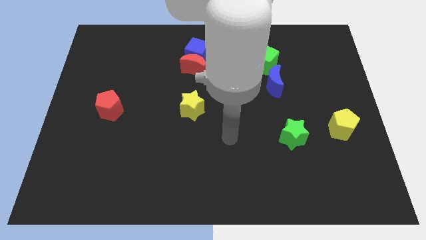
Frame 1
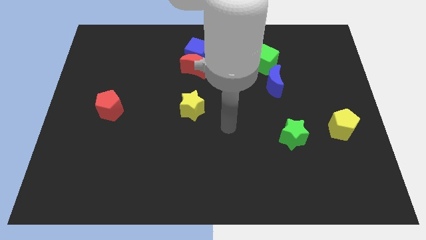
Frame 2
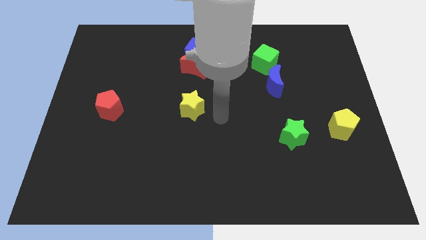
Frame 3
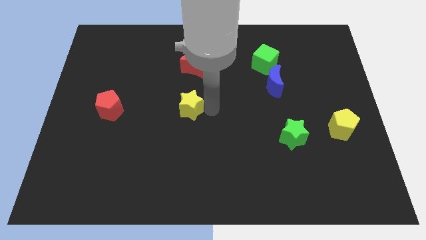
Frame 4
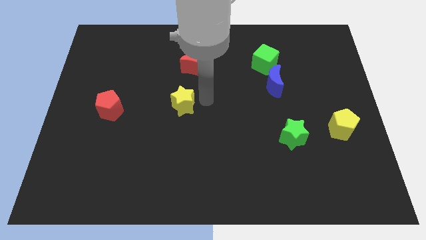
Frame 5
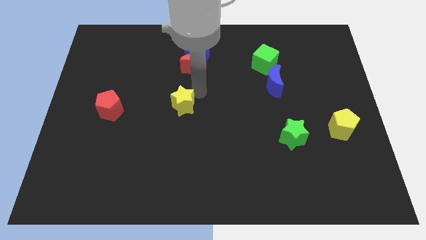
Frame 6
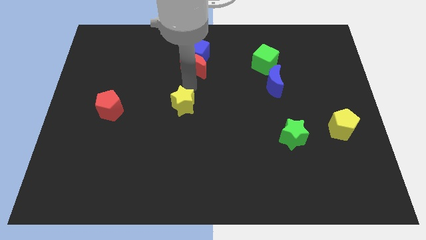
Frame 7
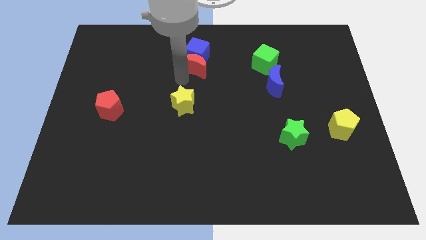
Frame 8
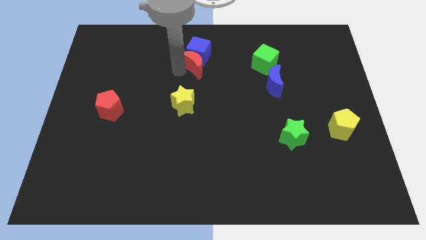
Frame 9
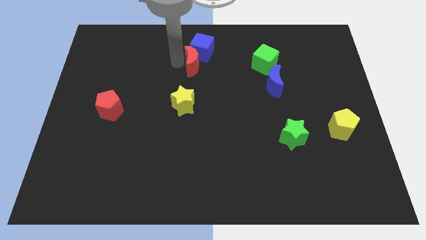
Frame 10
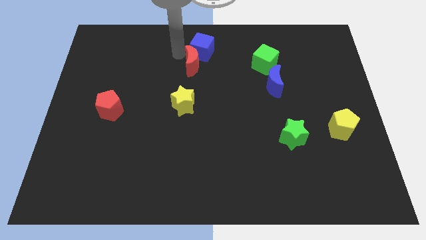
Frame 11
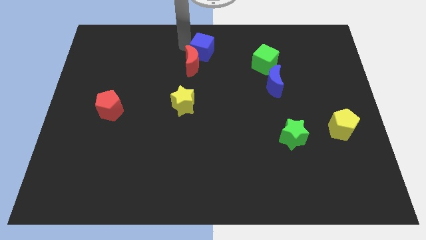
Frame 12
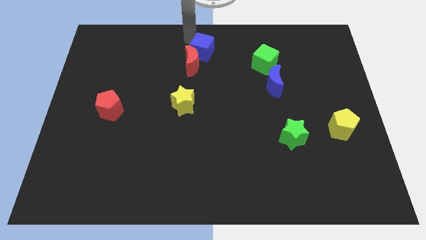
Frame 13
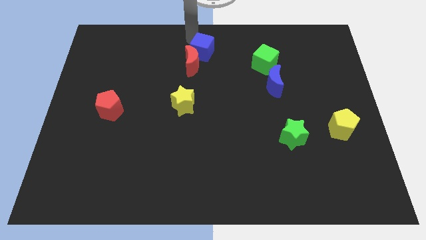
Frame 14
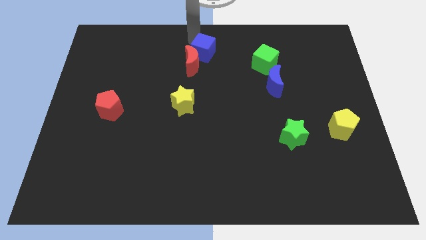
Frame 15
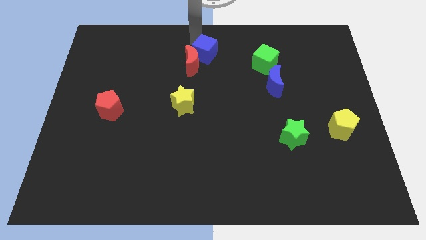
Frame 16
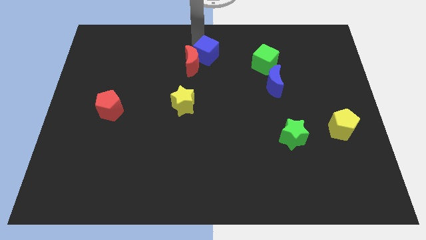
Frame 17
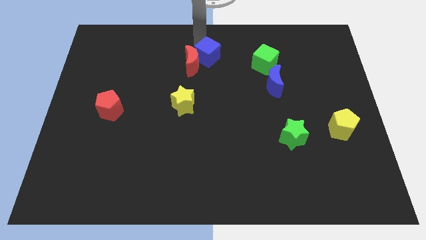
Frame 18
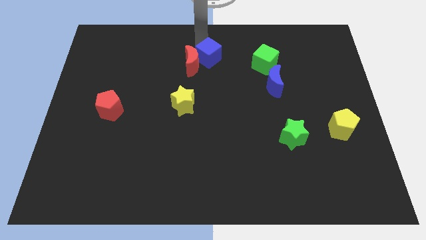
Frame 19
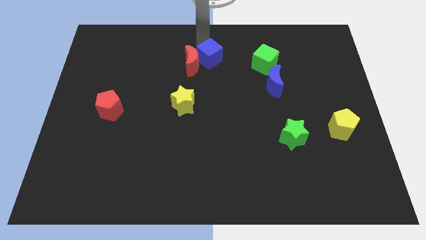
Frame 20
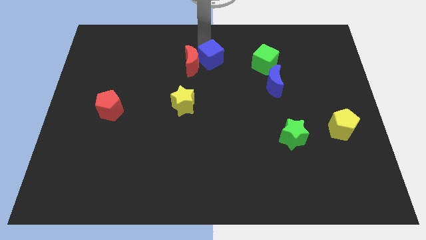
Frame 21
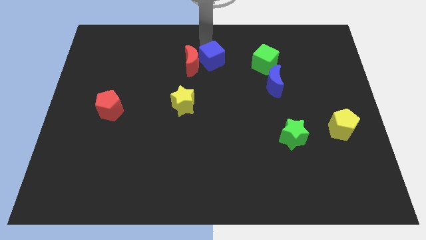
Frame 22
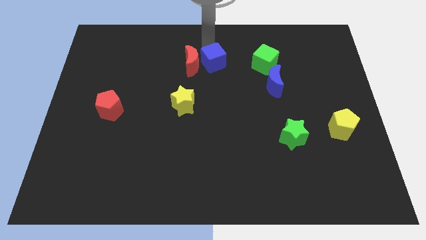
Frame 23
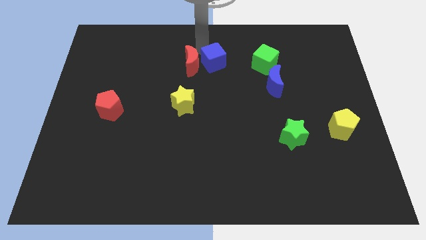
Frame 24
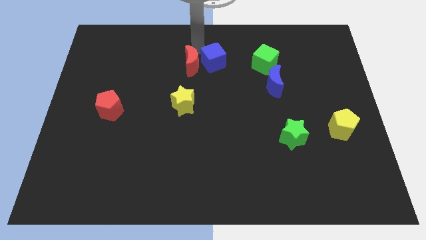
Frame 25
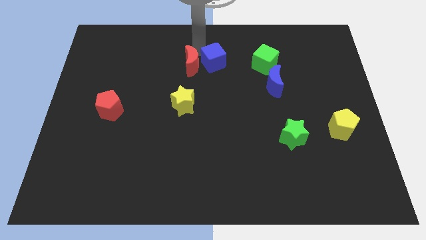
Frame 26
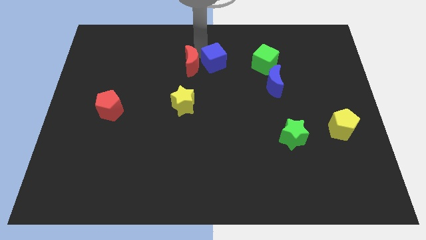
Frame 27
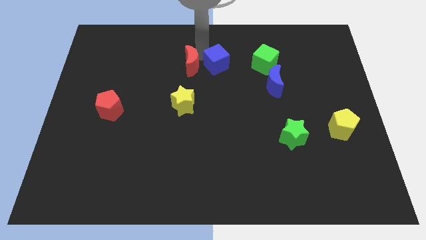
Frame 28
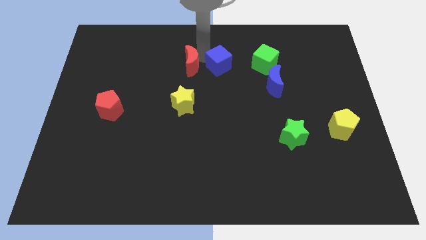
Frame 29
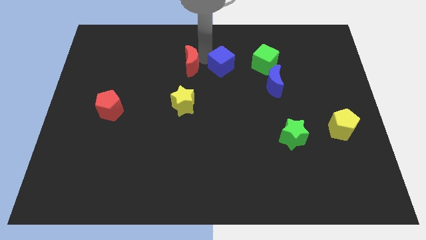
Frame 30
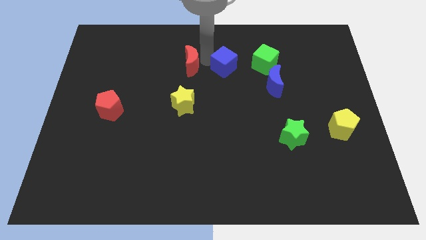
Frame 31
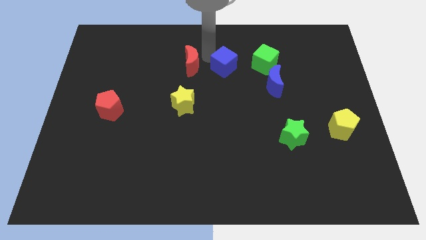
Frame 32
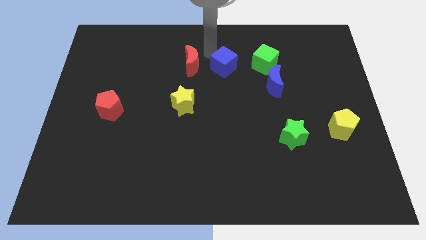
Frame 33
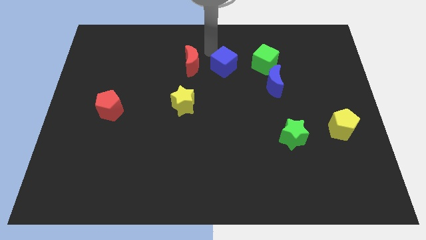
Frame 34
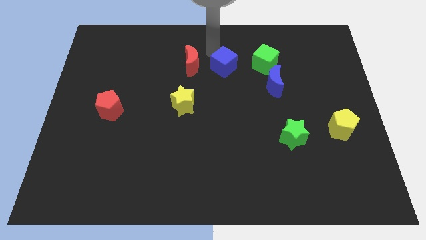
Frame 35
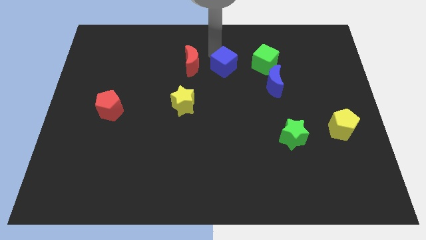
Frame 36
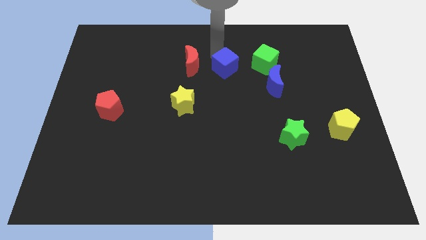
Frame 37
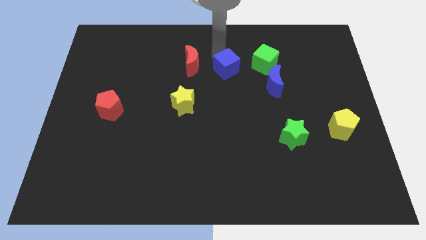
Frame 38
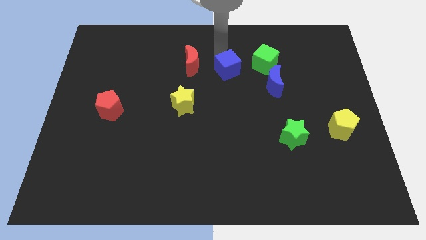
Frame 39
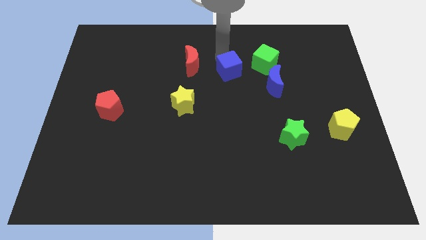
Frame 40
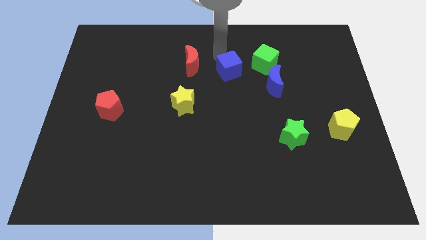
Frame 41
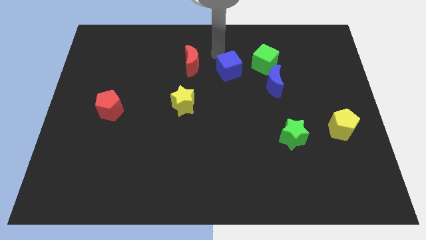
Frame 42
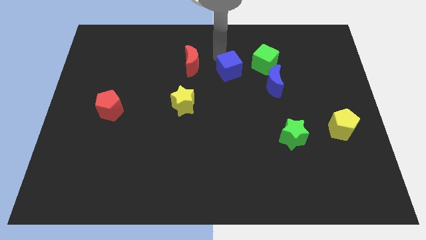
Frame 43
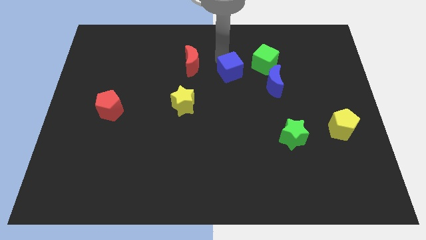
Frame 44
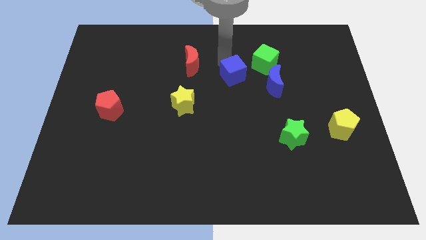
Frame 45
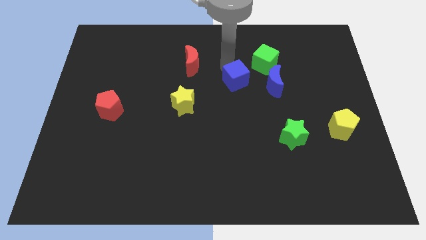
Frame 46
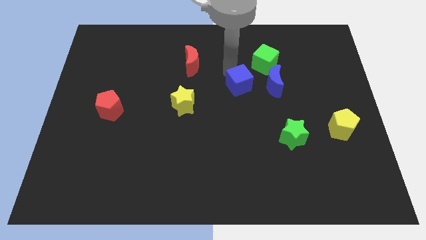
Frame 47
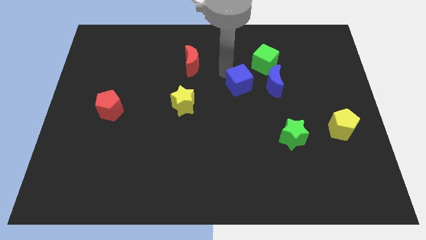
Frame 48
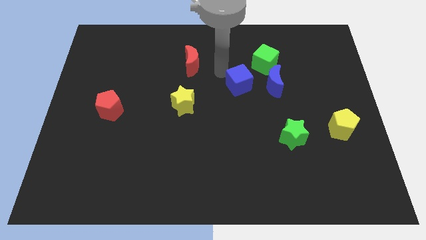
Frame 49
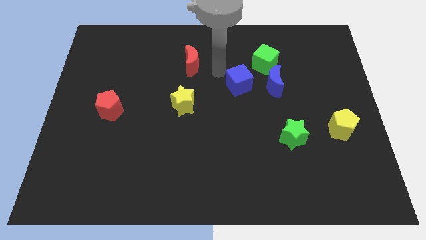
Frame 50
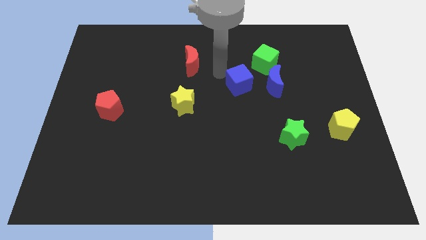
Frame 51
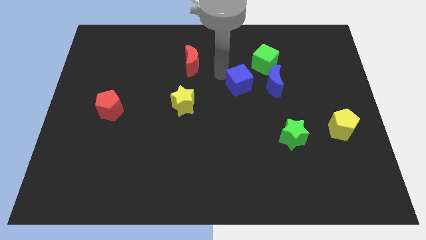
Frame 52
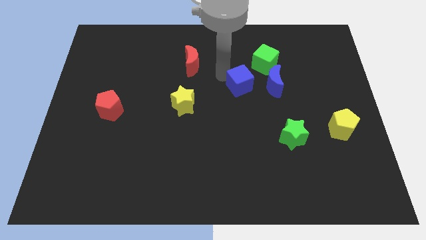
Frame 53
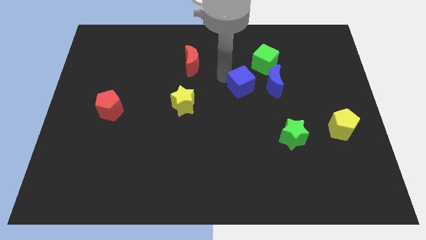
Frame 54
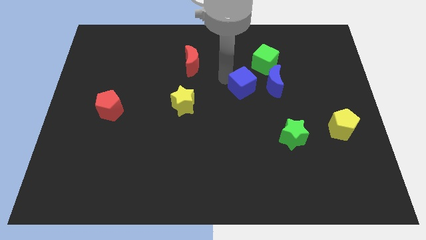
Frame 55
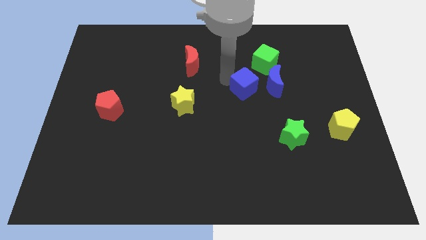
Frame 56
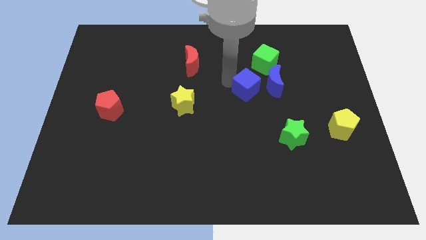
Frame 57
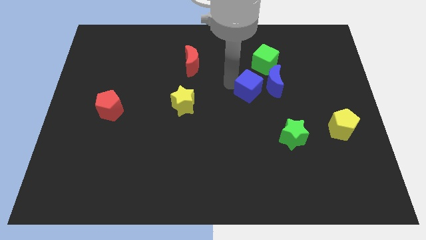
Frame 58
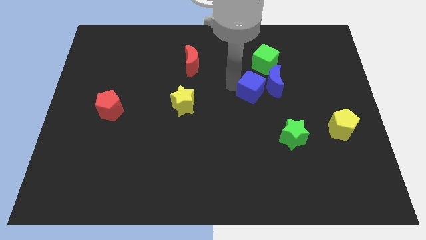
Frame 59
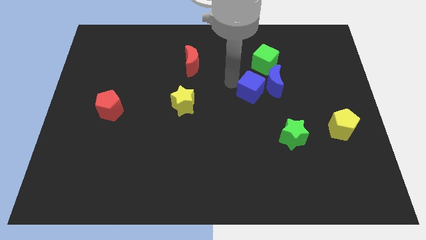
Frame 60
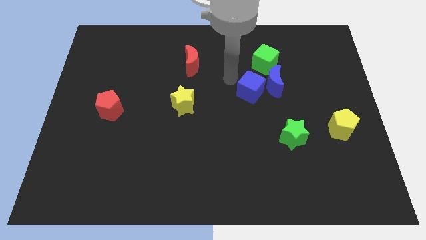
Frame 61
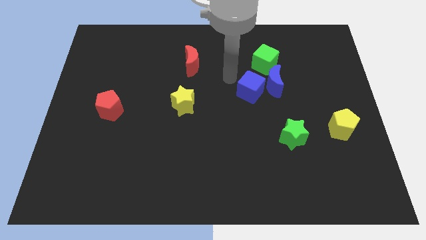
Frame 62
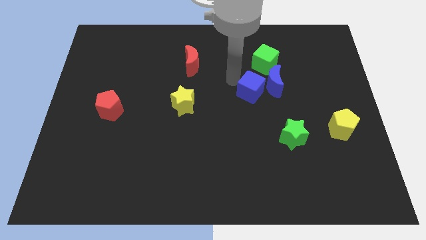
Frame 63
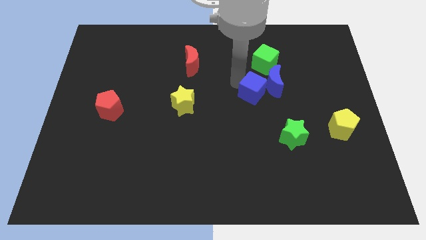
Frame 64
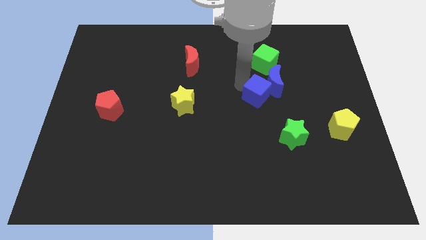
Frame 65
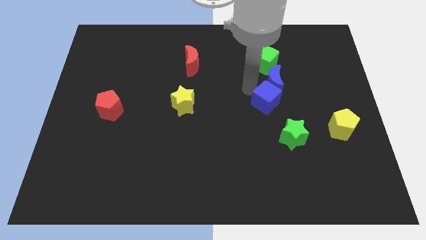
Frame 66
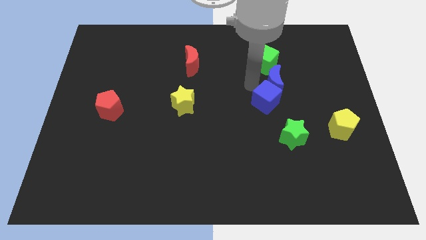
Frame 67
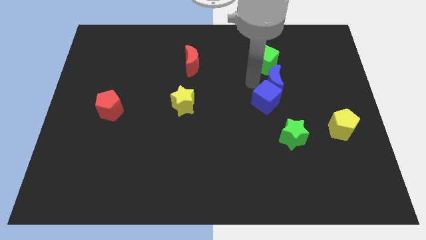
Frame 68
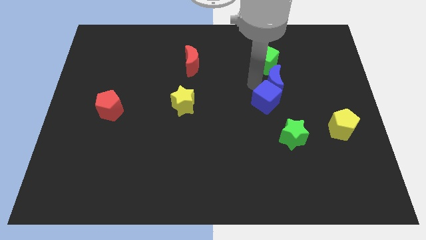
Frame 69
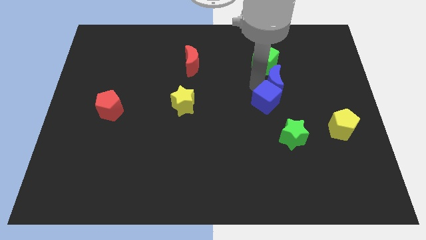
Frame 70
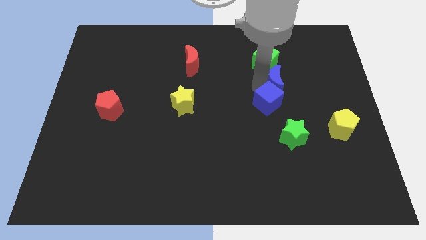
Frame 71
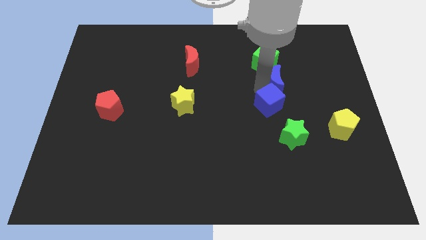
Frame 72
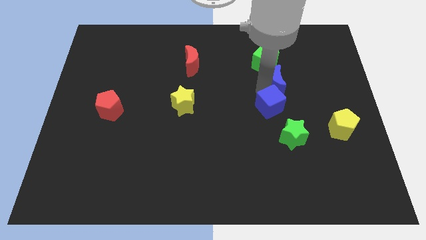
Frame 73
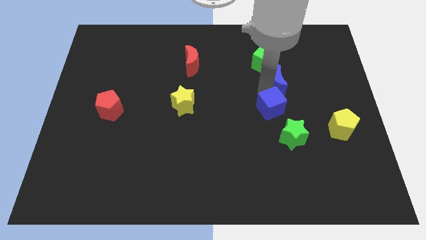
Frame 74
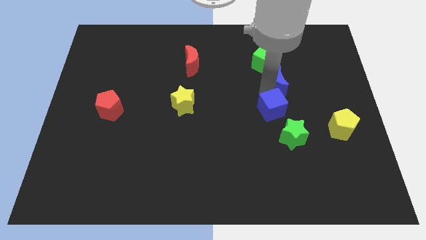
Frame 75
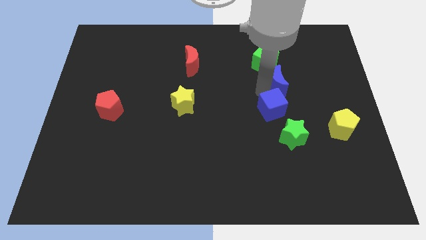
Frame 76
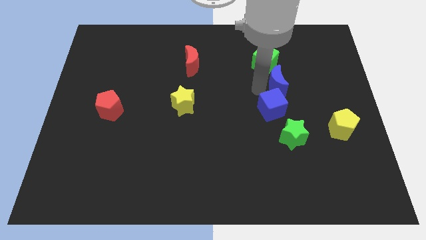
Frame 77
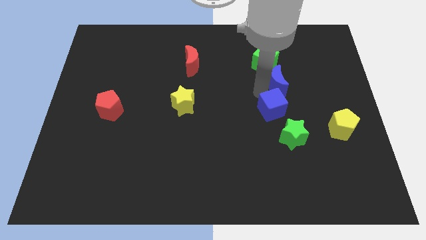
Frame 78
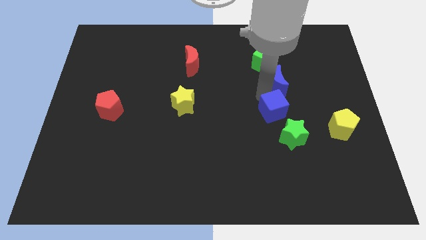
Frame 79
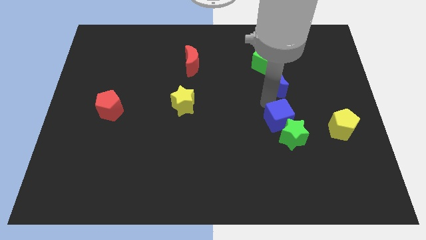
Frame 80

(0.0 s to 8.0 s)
push the blue cube close to the green star
